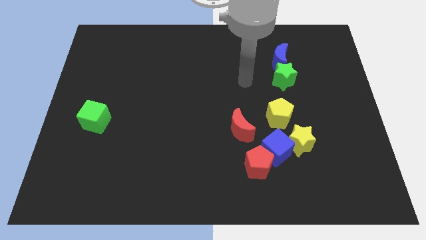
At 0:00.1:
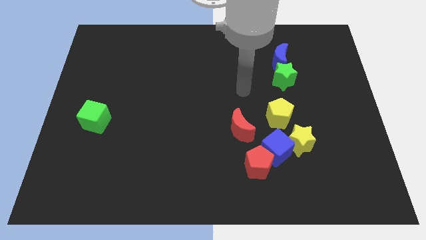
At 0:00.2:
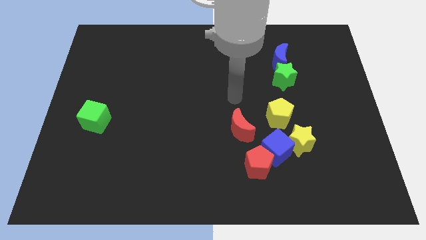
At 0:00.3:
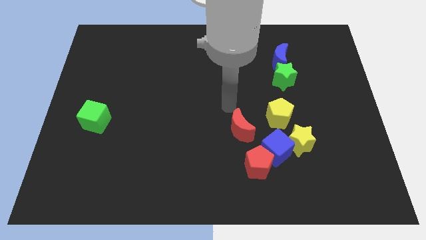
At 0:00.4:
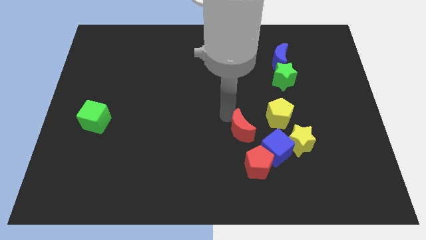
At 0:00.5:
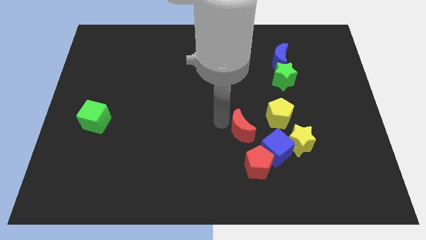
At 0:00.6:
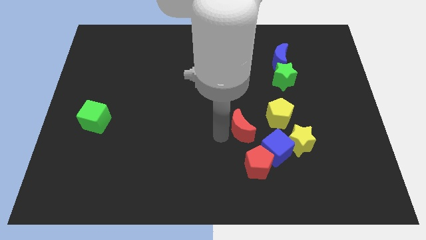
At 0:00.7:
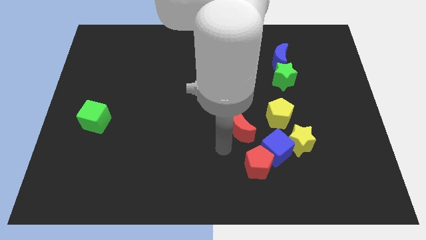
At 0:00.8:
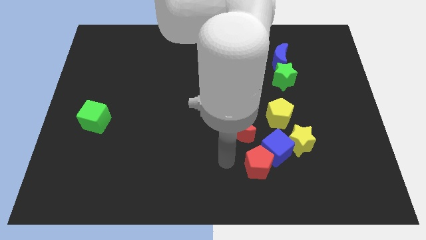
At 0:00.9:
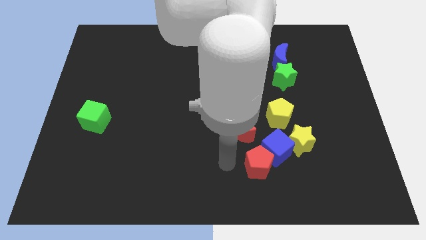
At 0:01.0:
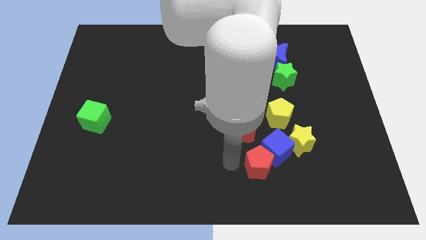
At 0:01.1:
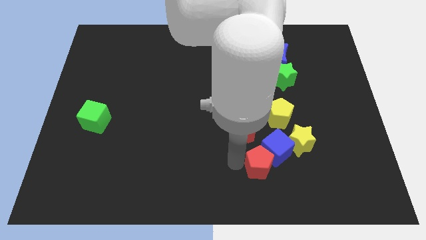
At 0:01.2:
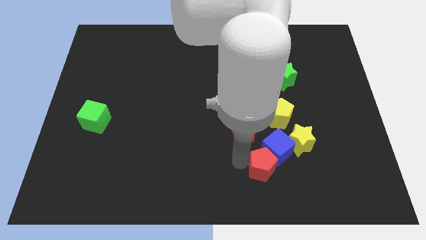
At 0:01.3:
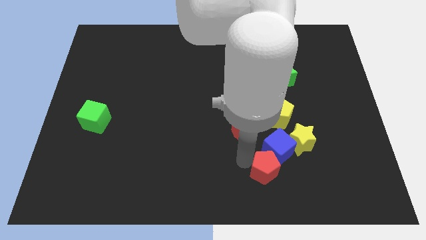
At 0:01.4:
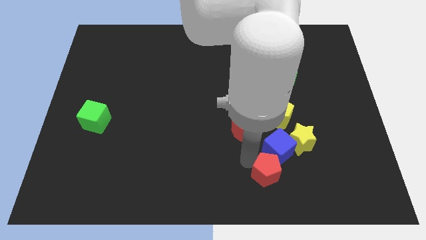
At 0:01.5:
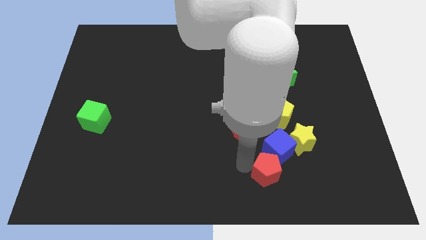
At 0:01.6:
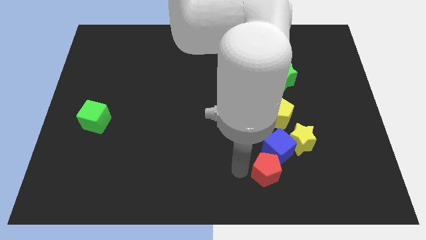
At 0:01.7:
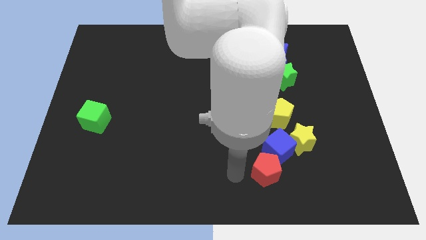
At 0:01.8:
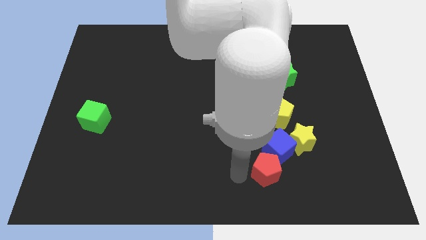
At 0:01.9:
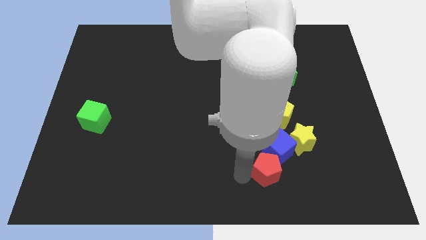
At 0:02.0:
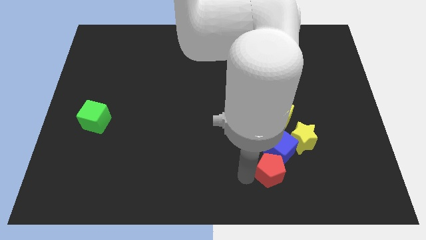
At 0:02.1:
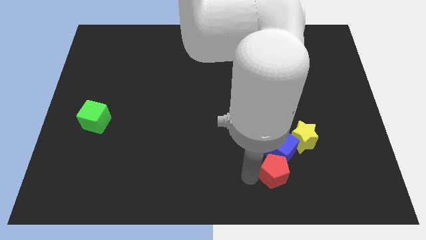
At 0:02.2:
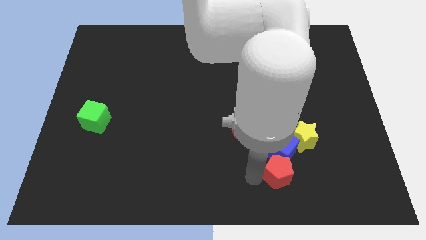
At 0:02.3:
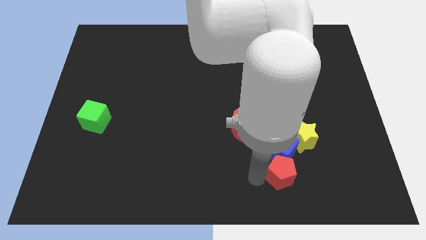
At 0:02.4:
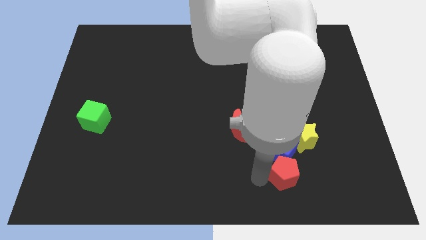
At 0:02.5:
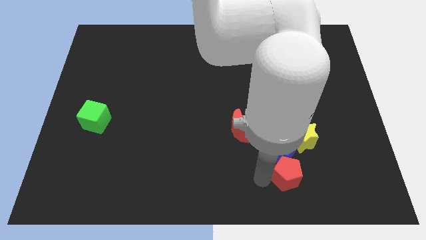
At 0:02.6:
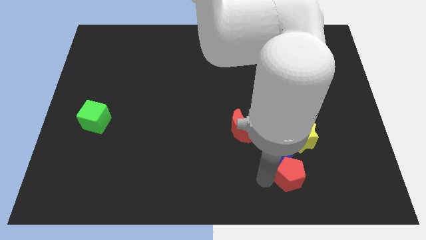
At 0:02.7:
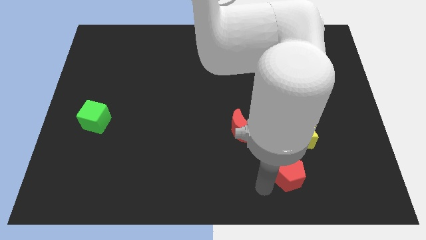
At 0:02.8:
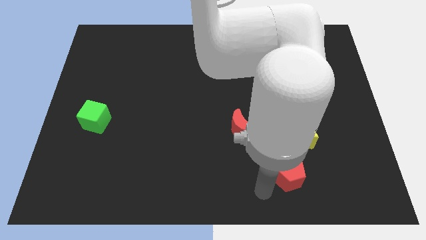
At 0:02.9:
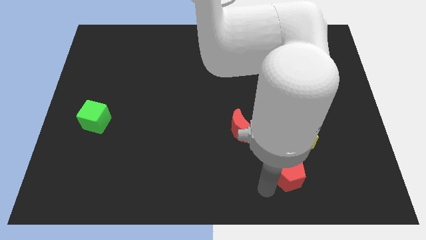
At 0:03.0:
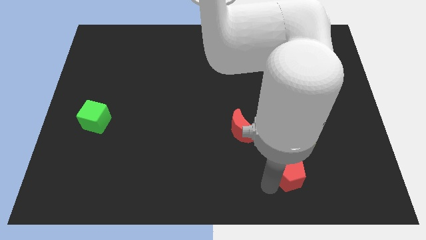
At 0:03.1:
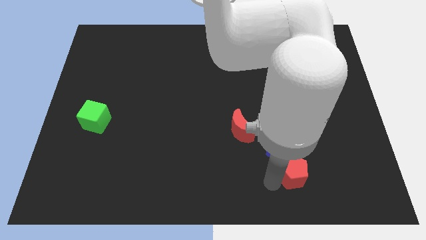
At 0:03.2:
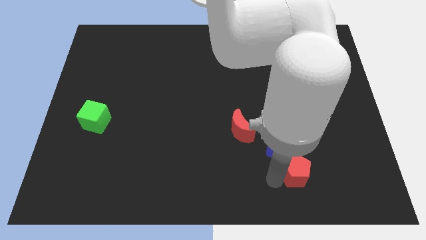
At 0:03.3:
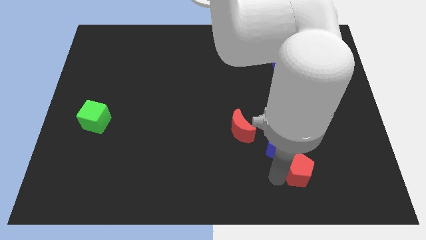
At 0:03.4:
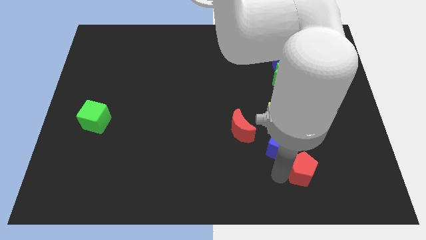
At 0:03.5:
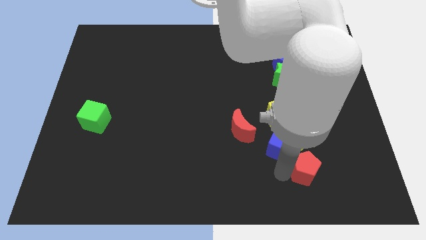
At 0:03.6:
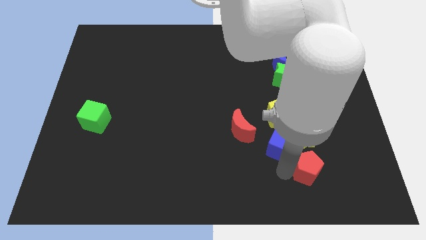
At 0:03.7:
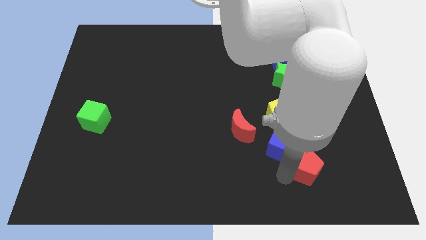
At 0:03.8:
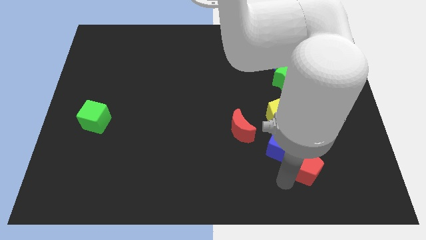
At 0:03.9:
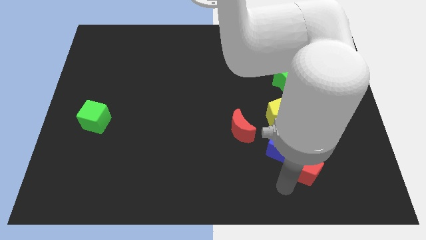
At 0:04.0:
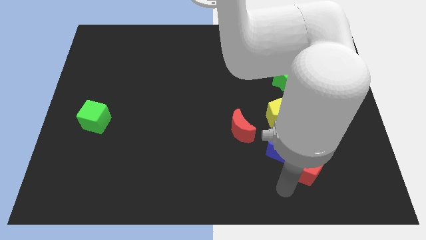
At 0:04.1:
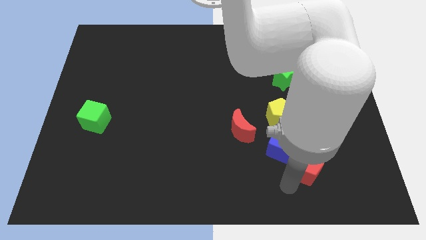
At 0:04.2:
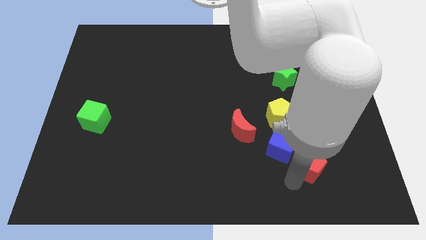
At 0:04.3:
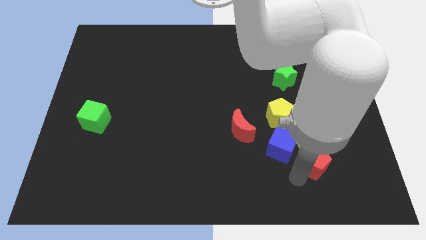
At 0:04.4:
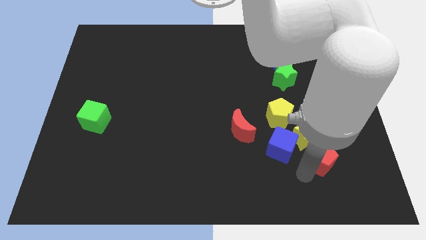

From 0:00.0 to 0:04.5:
push the red pentagon a little diagonally up and to the right

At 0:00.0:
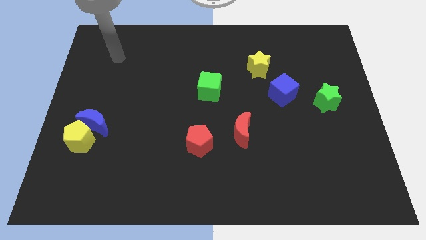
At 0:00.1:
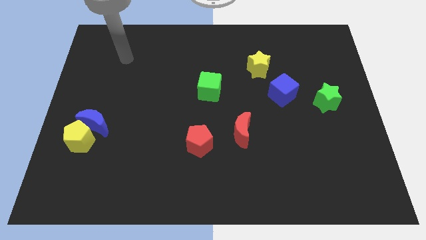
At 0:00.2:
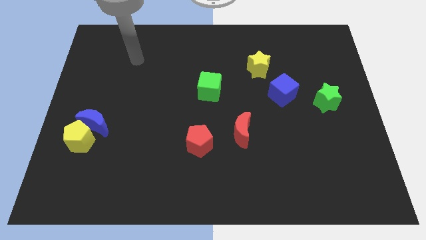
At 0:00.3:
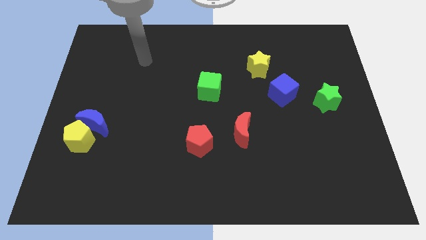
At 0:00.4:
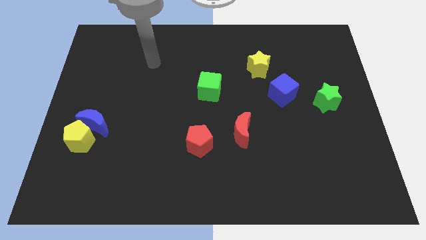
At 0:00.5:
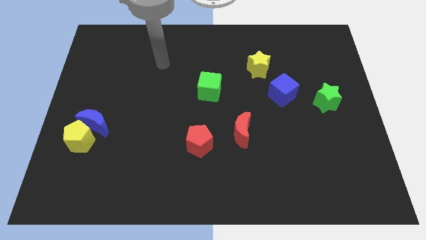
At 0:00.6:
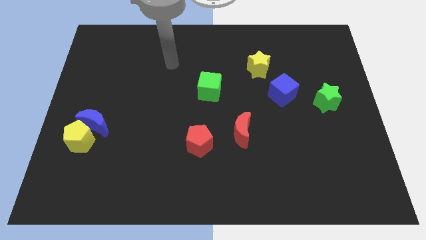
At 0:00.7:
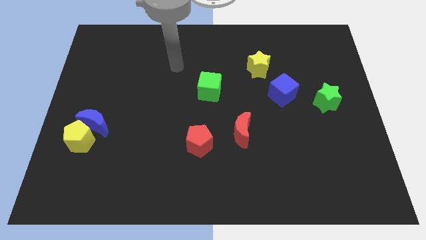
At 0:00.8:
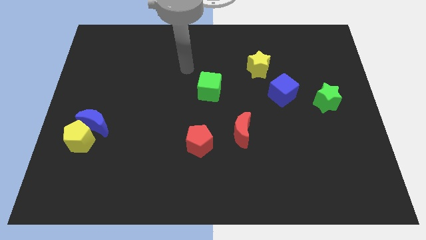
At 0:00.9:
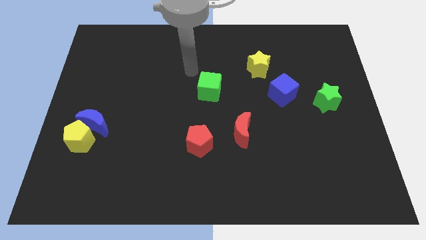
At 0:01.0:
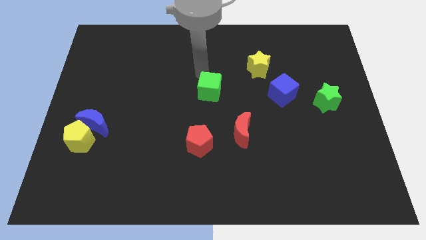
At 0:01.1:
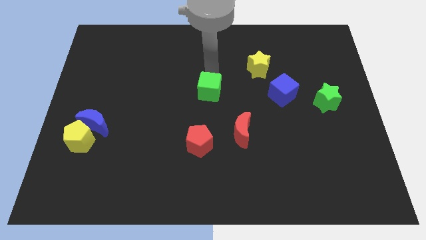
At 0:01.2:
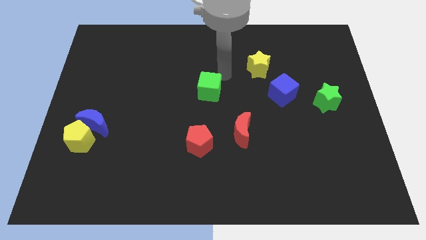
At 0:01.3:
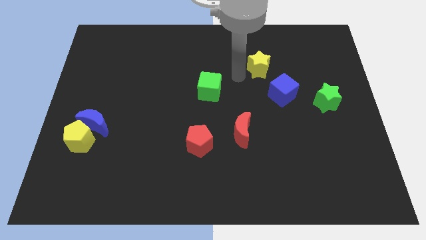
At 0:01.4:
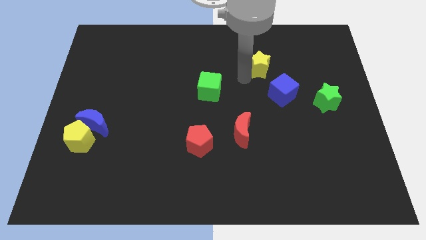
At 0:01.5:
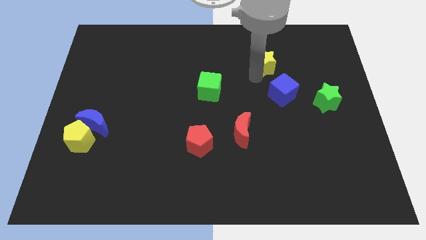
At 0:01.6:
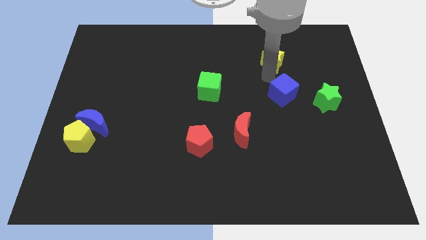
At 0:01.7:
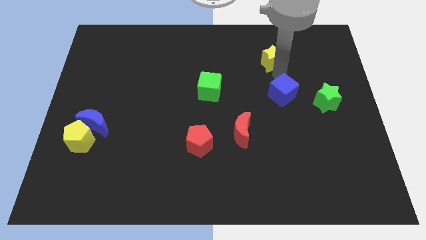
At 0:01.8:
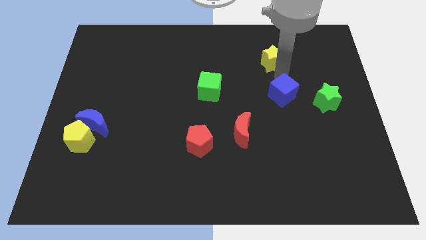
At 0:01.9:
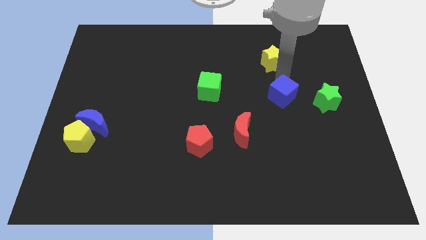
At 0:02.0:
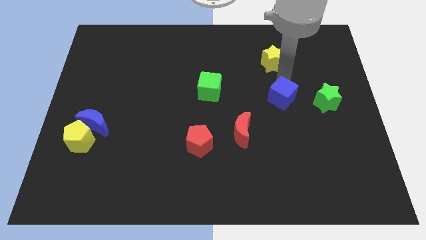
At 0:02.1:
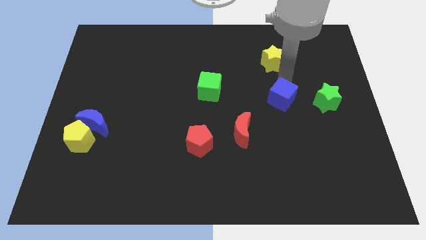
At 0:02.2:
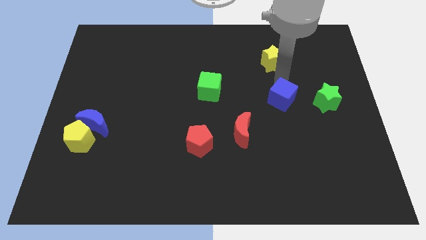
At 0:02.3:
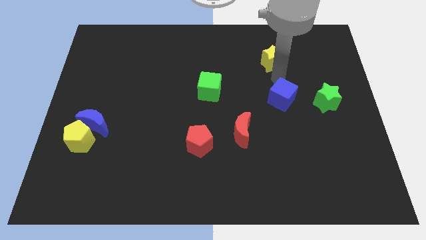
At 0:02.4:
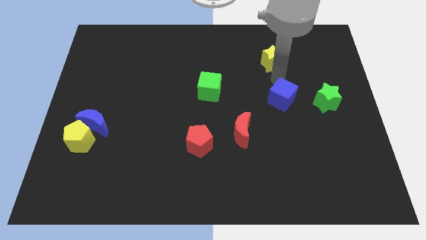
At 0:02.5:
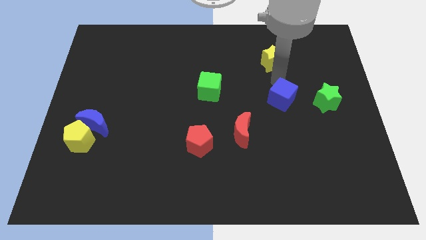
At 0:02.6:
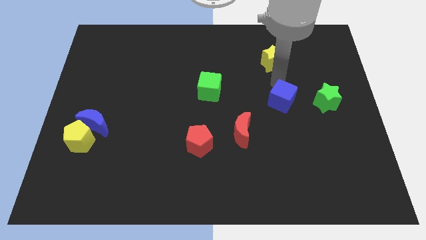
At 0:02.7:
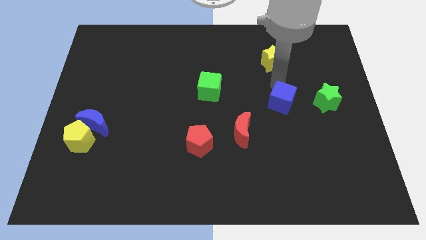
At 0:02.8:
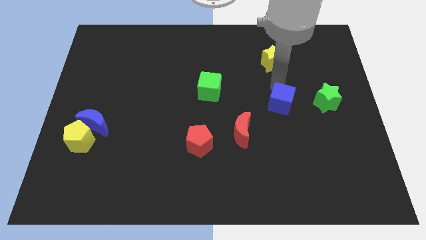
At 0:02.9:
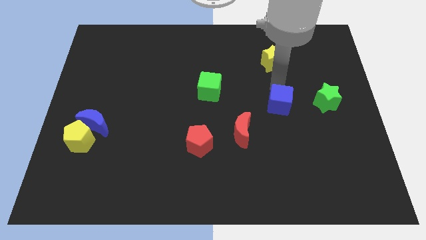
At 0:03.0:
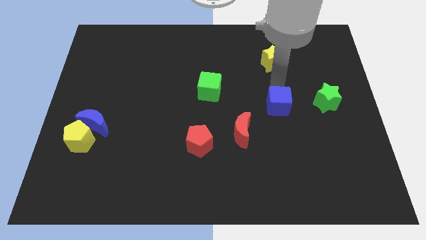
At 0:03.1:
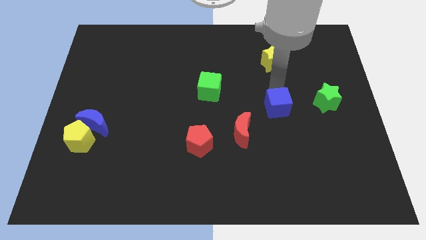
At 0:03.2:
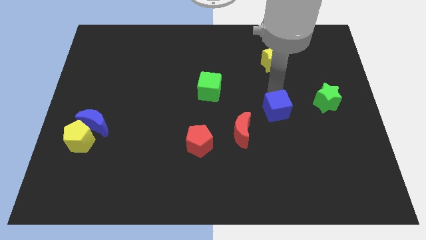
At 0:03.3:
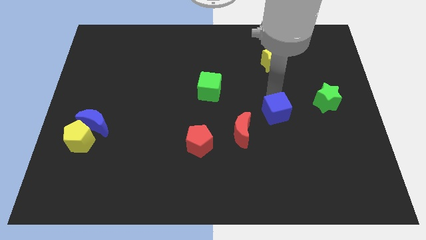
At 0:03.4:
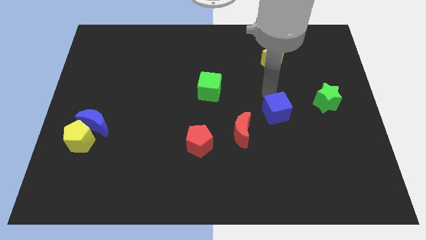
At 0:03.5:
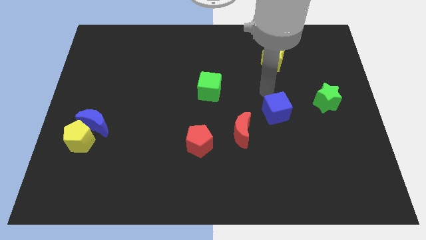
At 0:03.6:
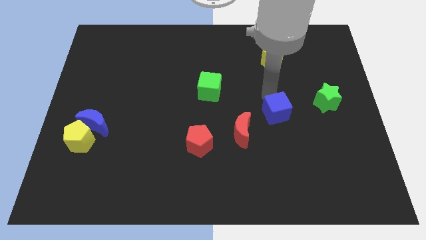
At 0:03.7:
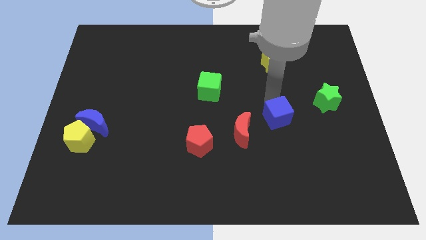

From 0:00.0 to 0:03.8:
move the blue cube somewhat down

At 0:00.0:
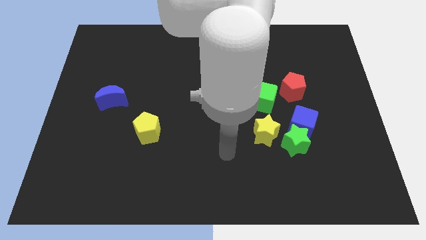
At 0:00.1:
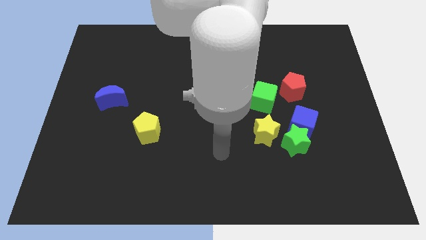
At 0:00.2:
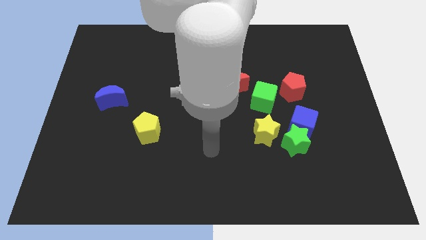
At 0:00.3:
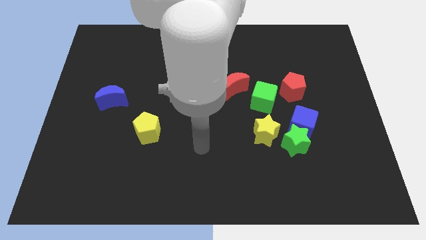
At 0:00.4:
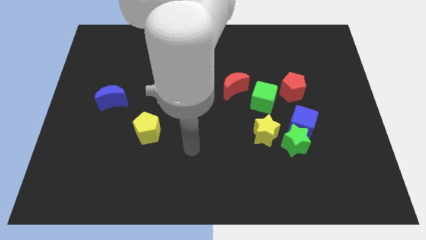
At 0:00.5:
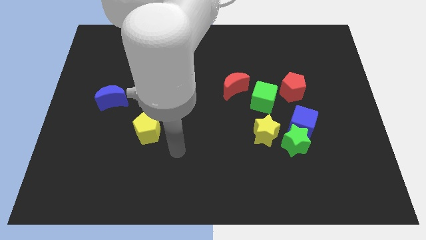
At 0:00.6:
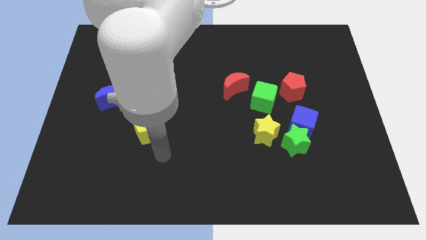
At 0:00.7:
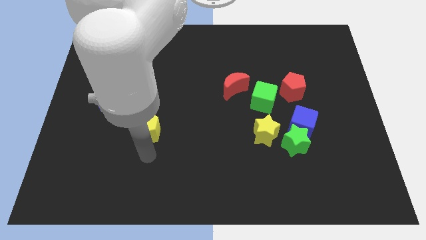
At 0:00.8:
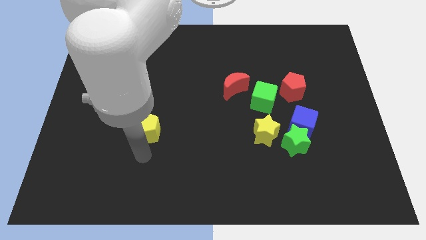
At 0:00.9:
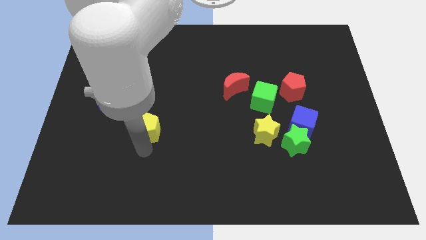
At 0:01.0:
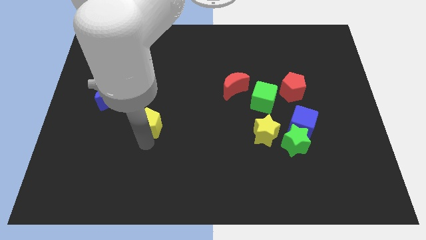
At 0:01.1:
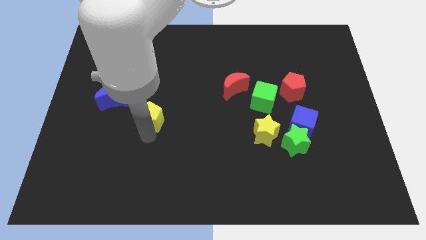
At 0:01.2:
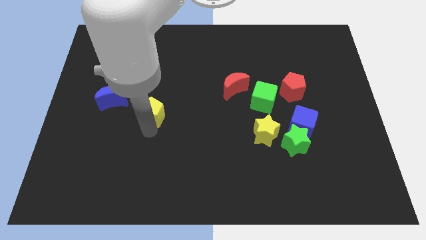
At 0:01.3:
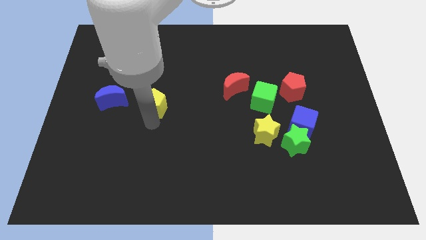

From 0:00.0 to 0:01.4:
slide the yellow pentagon up a bit
